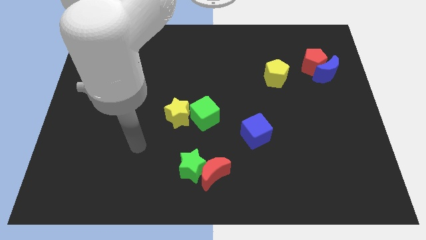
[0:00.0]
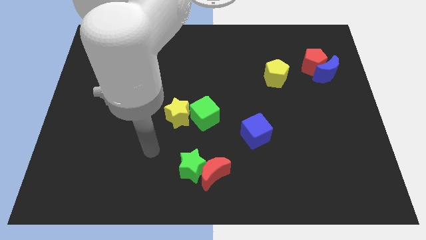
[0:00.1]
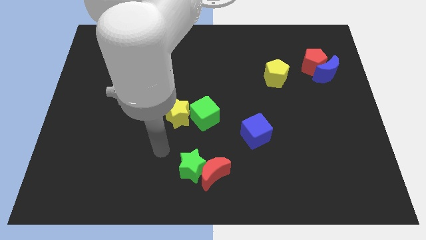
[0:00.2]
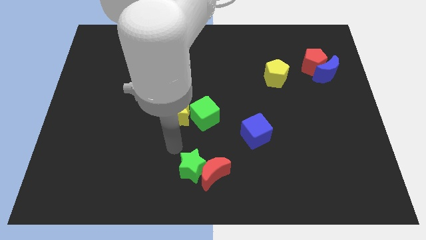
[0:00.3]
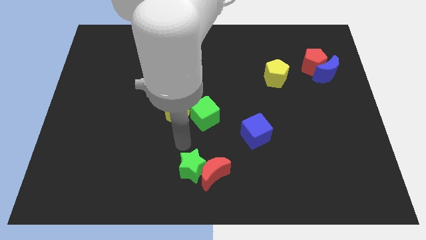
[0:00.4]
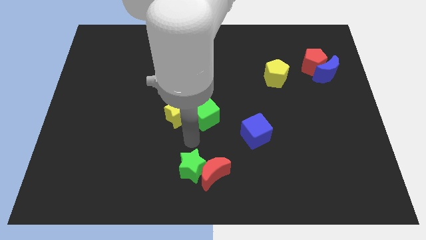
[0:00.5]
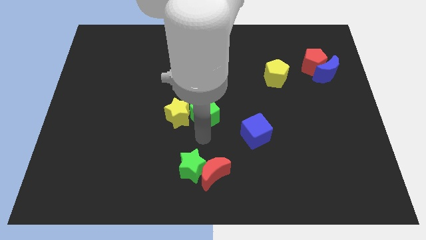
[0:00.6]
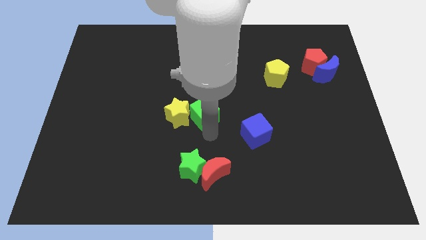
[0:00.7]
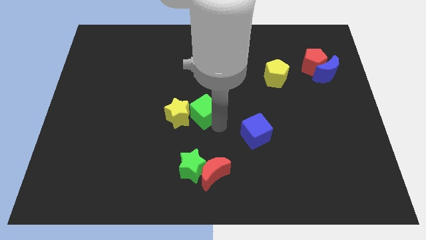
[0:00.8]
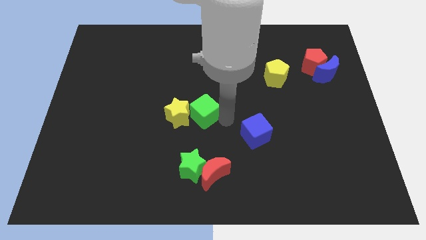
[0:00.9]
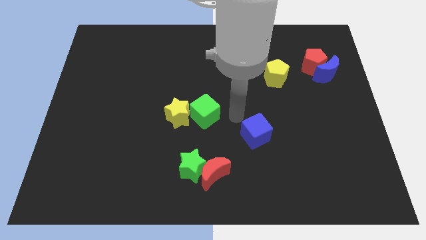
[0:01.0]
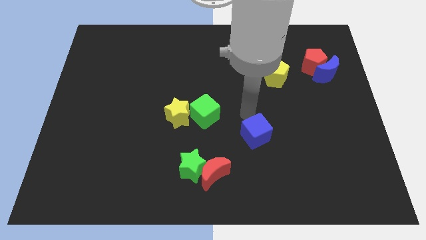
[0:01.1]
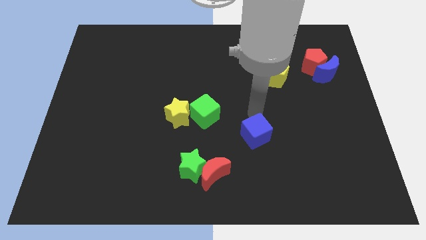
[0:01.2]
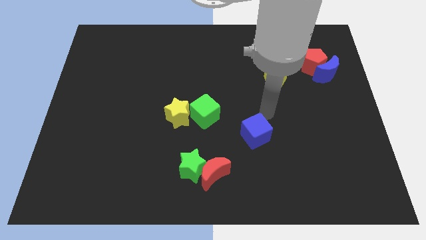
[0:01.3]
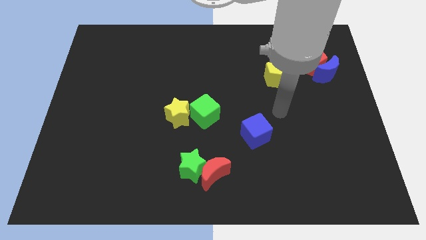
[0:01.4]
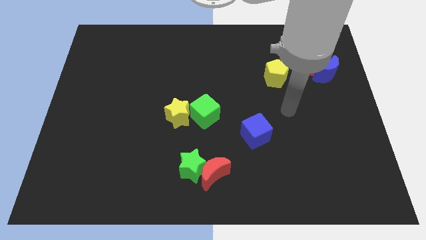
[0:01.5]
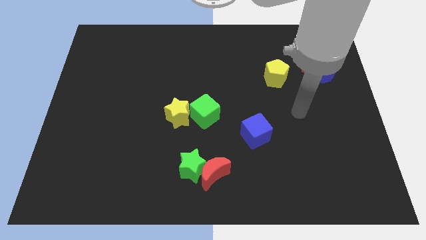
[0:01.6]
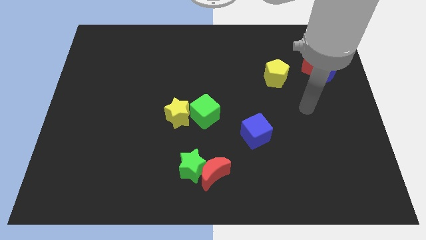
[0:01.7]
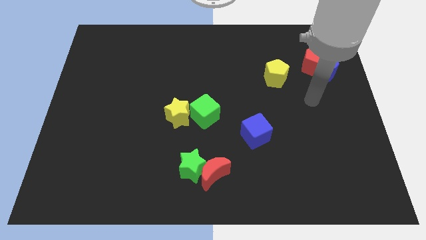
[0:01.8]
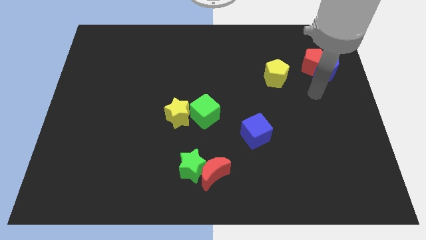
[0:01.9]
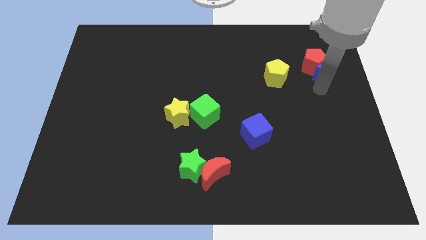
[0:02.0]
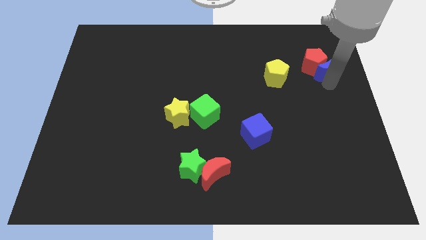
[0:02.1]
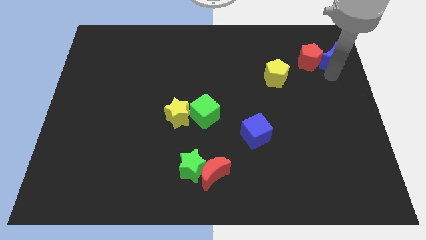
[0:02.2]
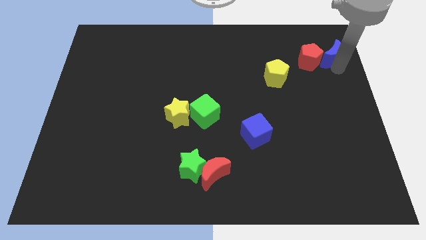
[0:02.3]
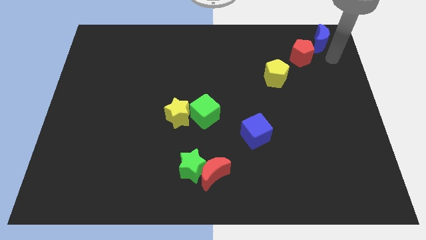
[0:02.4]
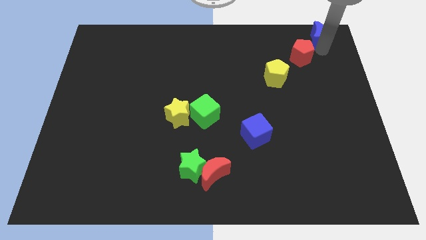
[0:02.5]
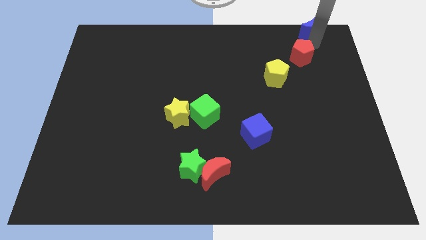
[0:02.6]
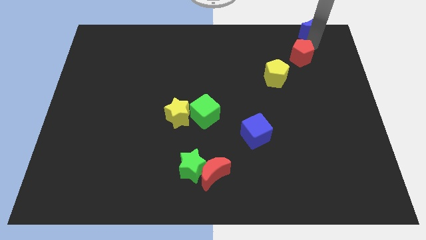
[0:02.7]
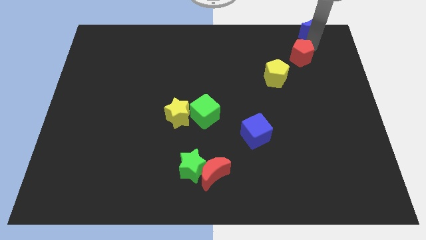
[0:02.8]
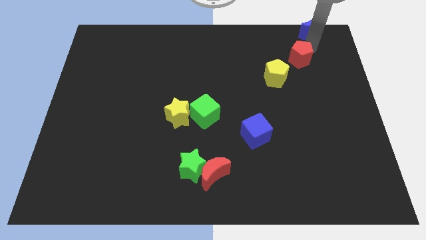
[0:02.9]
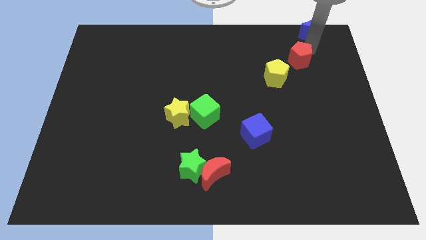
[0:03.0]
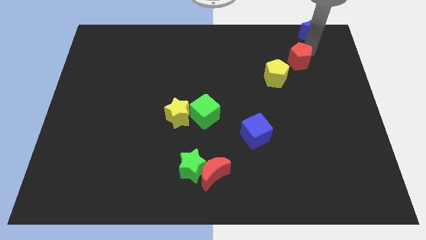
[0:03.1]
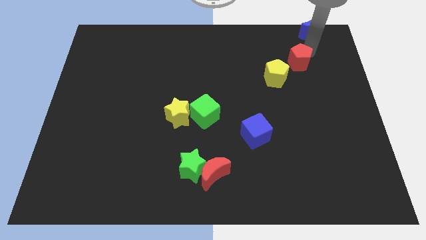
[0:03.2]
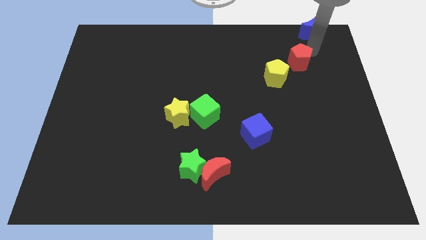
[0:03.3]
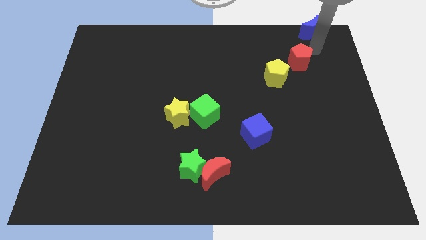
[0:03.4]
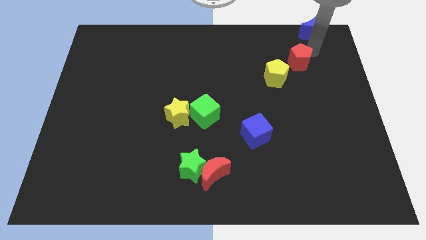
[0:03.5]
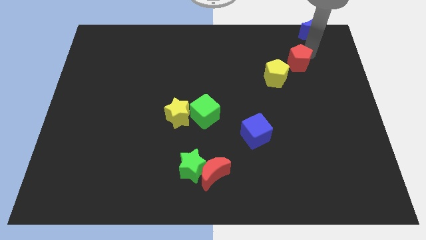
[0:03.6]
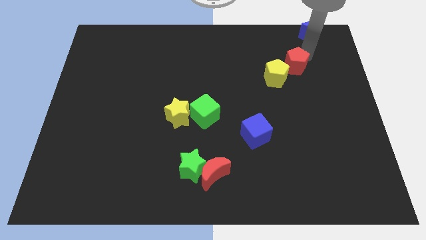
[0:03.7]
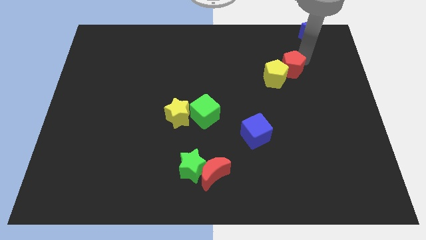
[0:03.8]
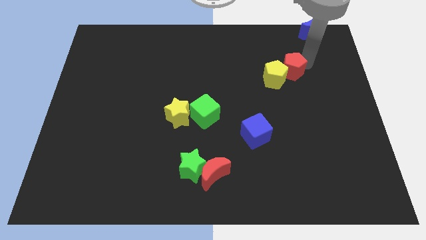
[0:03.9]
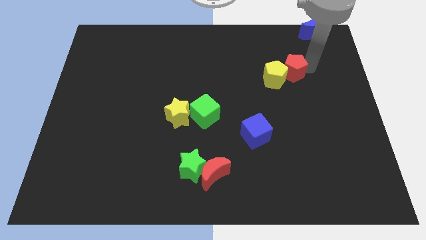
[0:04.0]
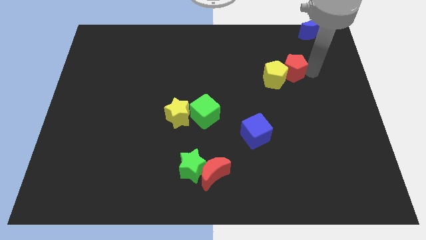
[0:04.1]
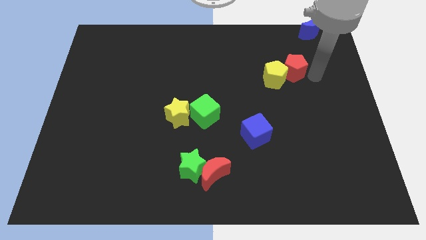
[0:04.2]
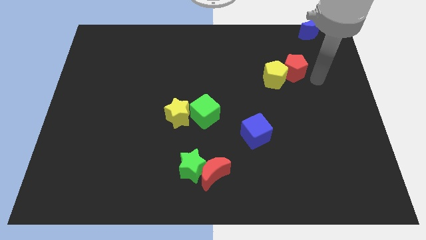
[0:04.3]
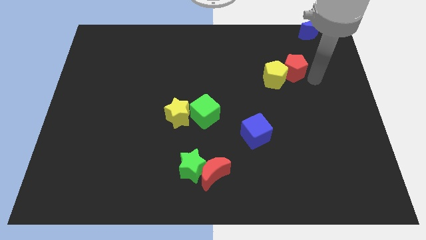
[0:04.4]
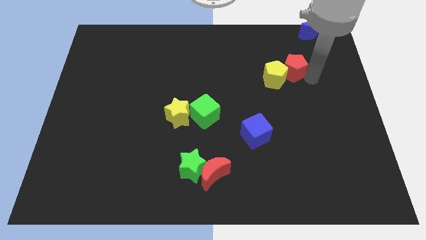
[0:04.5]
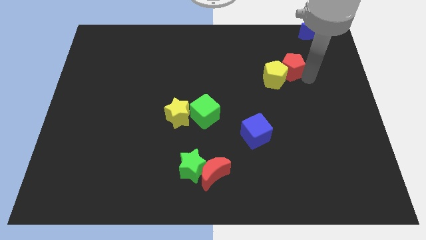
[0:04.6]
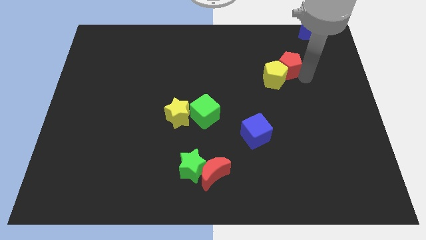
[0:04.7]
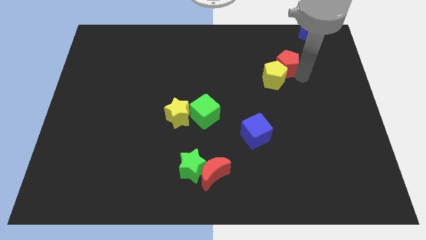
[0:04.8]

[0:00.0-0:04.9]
push the red pentagon slightly left

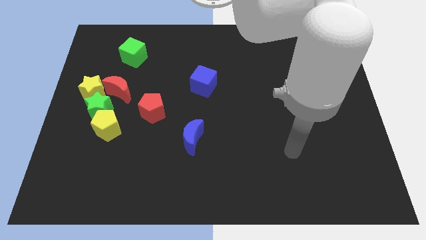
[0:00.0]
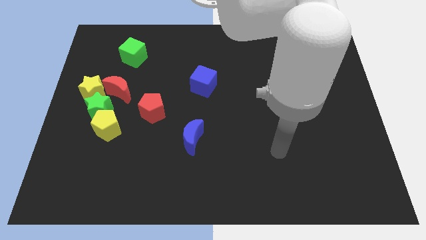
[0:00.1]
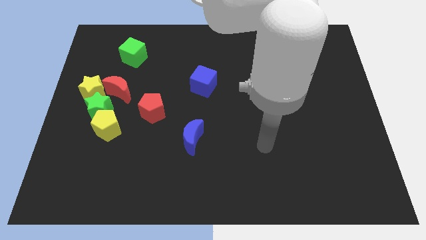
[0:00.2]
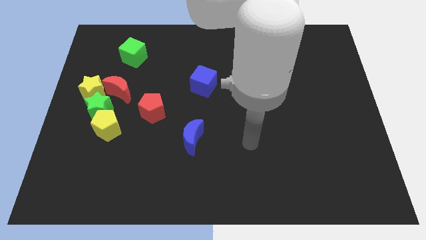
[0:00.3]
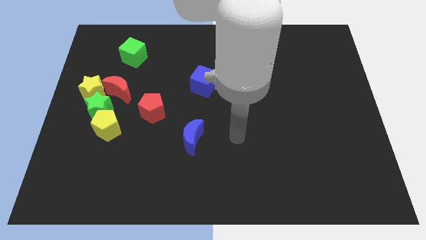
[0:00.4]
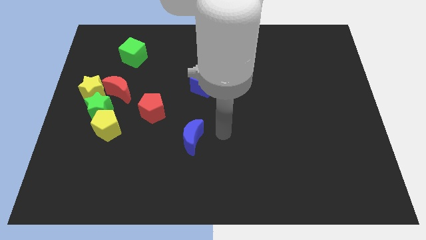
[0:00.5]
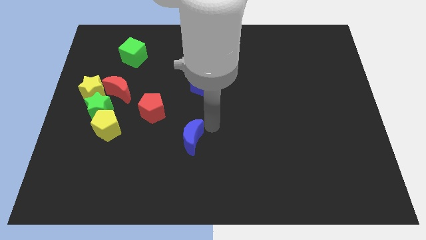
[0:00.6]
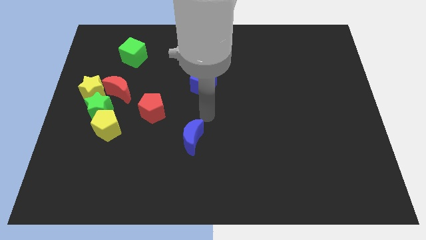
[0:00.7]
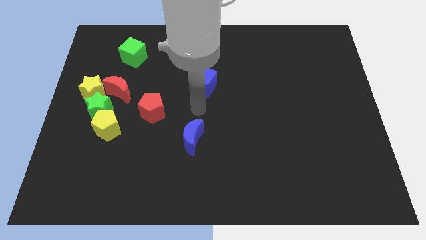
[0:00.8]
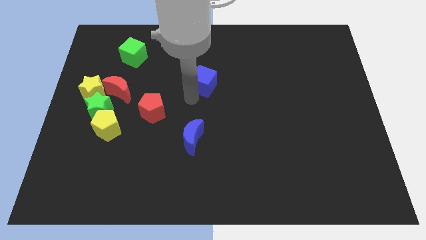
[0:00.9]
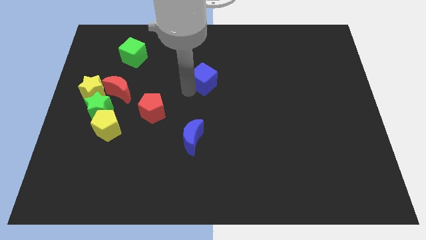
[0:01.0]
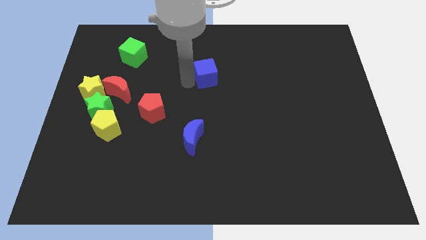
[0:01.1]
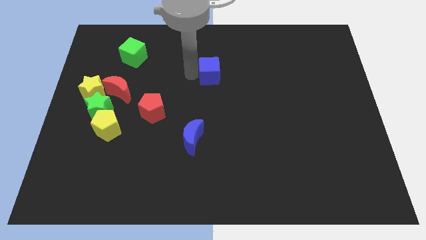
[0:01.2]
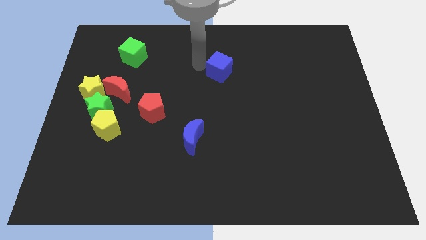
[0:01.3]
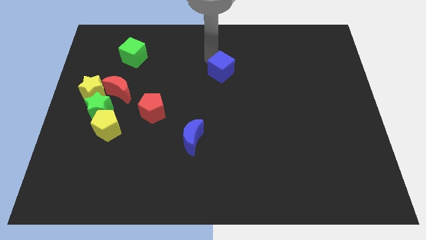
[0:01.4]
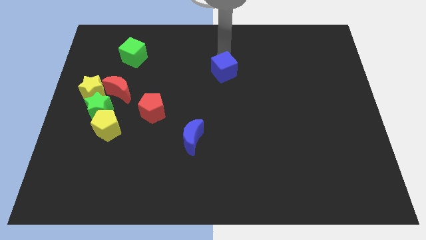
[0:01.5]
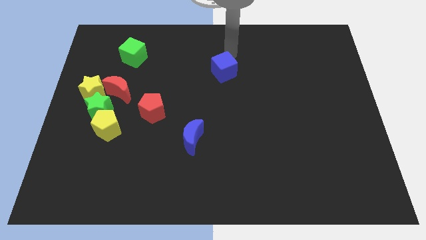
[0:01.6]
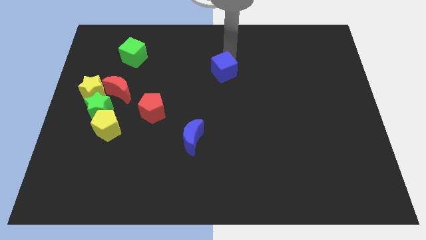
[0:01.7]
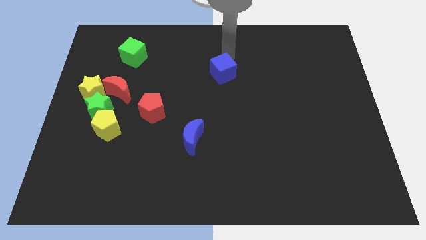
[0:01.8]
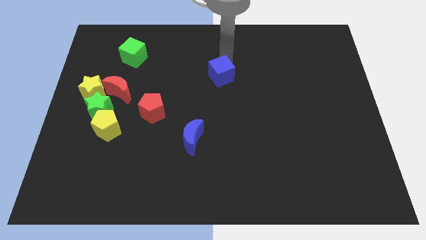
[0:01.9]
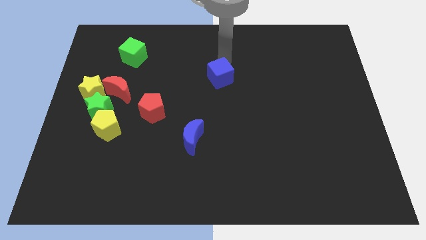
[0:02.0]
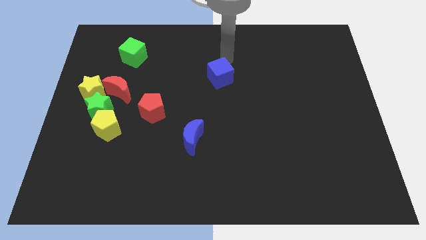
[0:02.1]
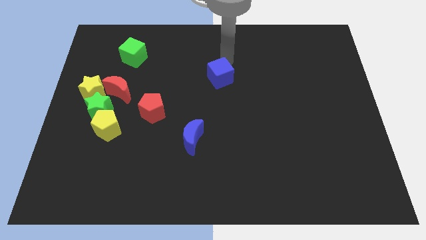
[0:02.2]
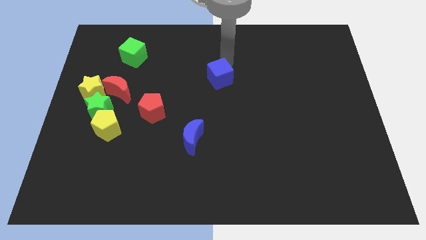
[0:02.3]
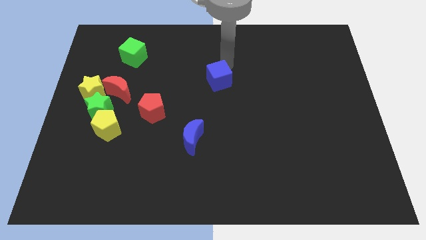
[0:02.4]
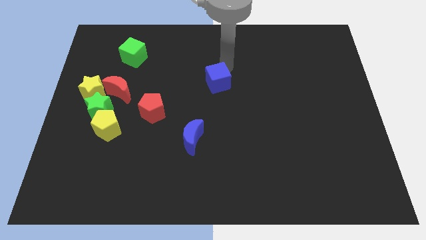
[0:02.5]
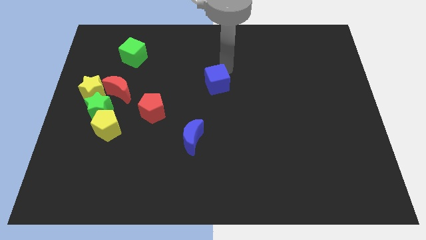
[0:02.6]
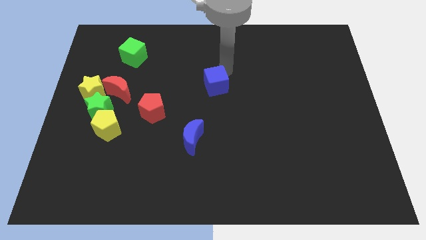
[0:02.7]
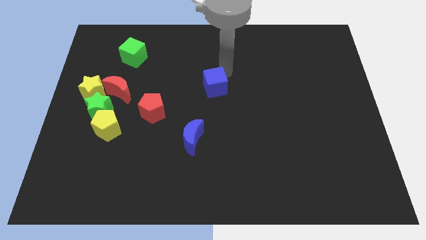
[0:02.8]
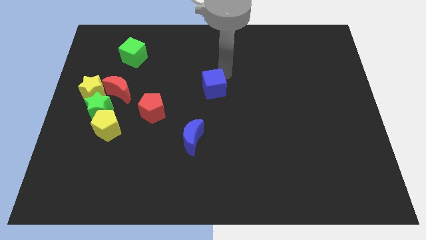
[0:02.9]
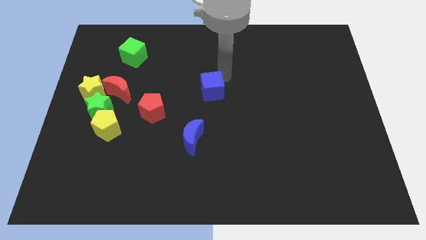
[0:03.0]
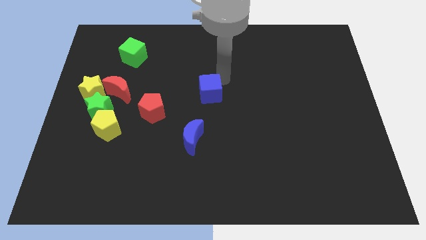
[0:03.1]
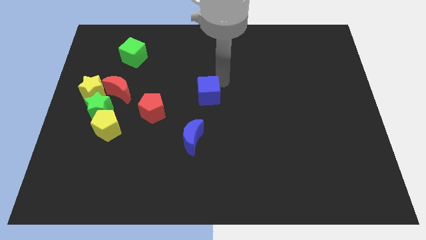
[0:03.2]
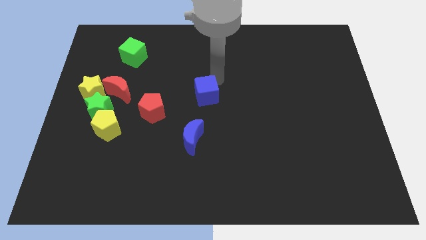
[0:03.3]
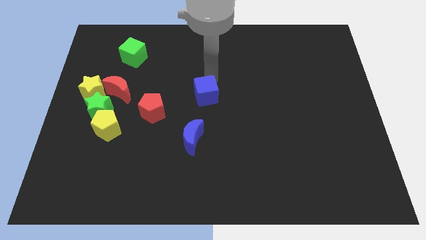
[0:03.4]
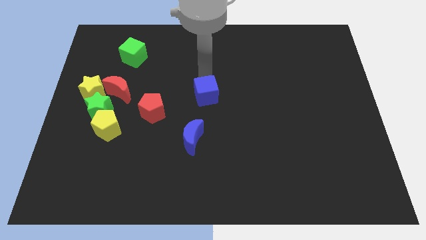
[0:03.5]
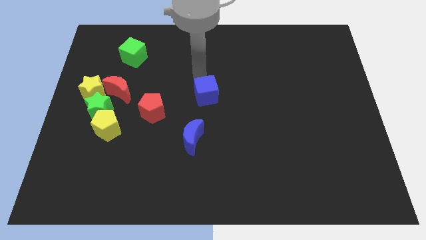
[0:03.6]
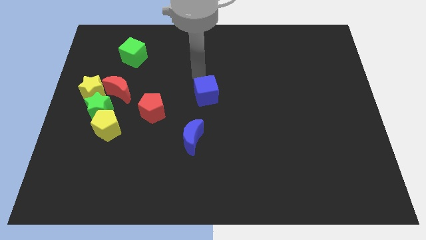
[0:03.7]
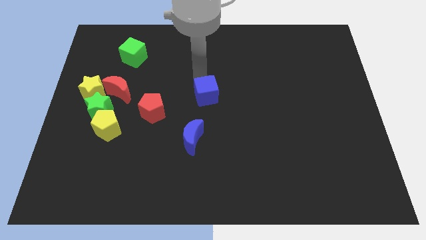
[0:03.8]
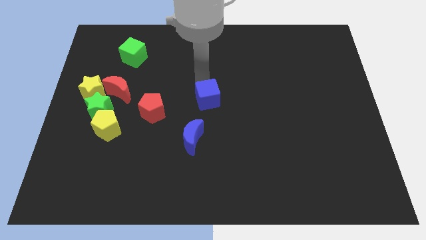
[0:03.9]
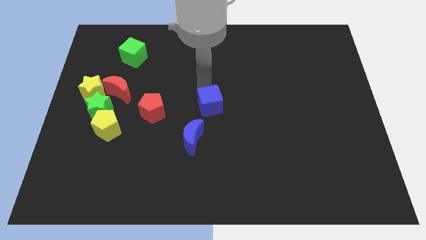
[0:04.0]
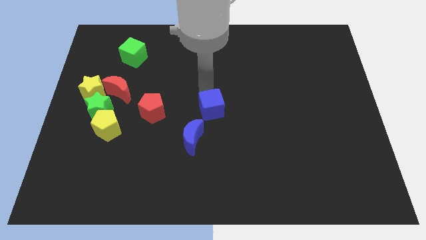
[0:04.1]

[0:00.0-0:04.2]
move the blue cube down slightly
